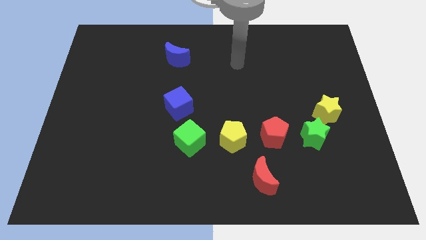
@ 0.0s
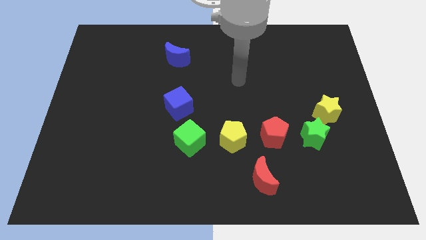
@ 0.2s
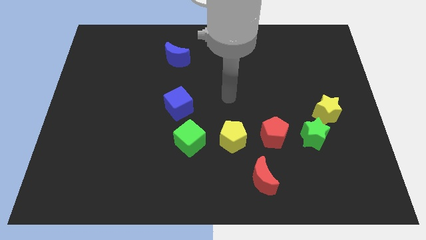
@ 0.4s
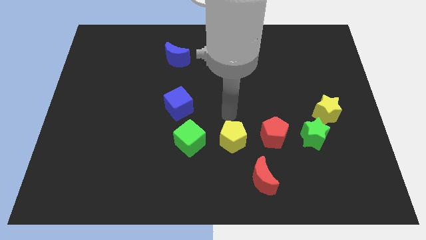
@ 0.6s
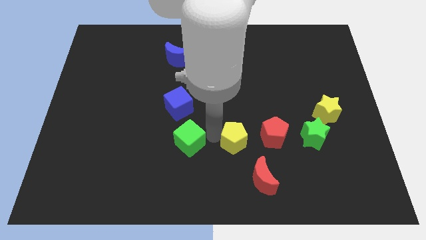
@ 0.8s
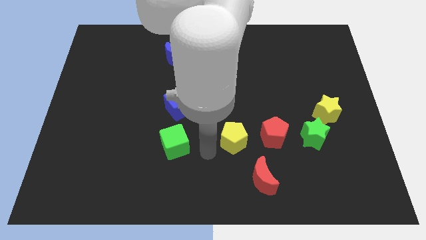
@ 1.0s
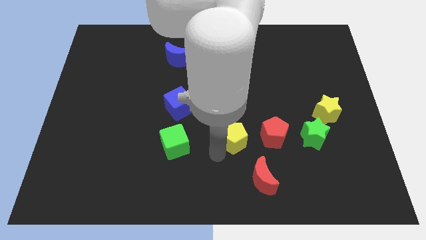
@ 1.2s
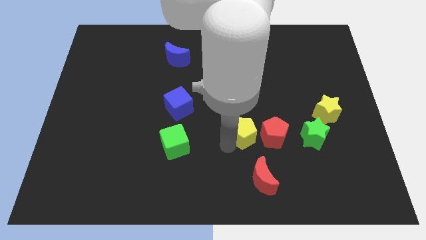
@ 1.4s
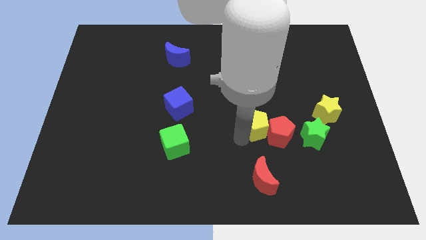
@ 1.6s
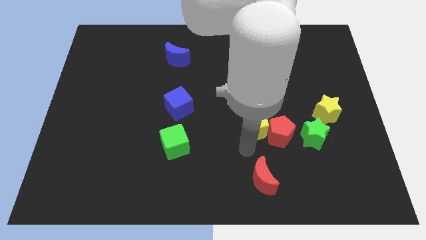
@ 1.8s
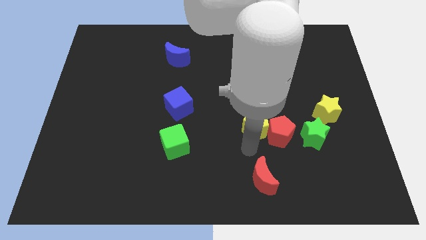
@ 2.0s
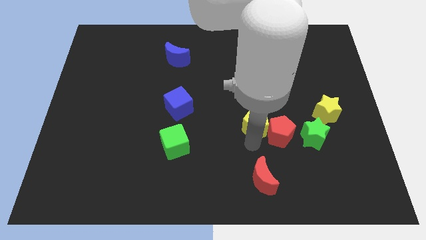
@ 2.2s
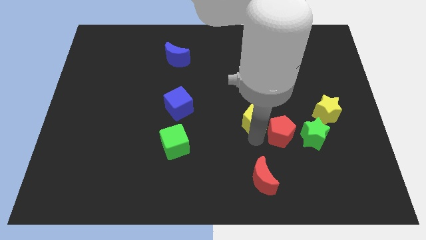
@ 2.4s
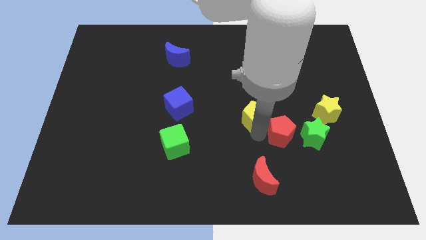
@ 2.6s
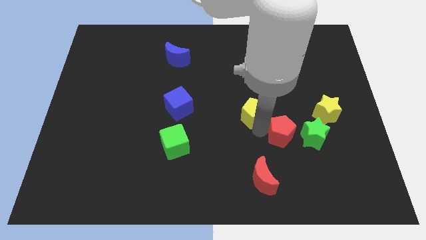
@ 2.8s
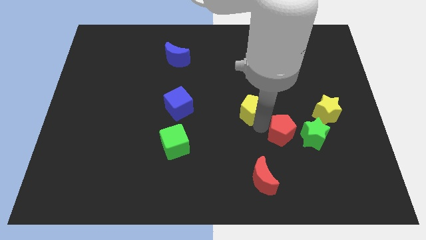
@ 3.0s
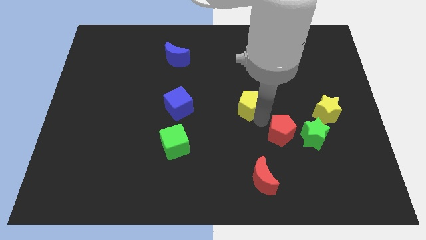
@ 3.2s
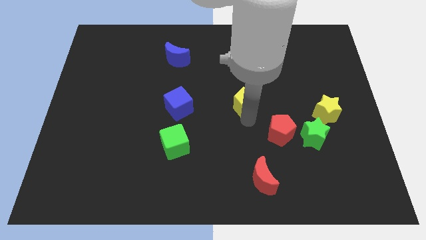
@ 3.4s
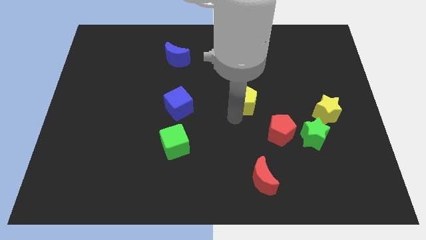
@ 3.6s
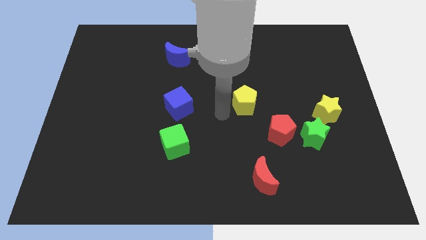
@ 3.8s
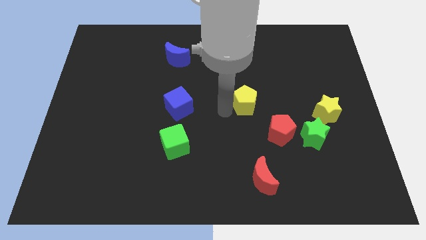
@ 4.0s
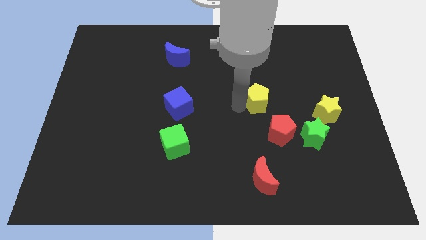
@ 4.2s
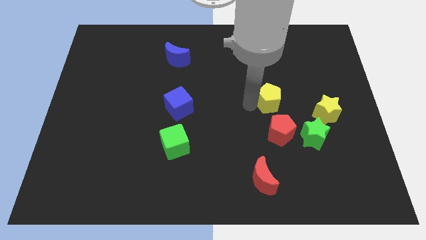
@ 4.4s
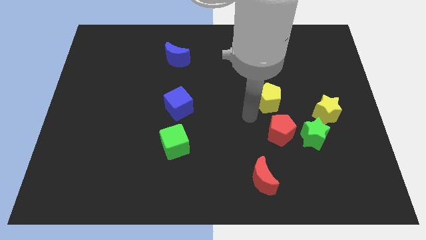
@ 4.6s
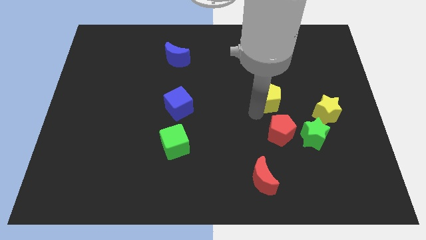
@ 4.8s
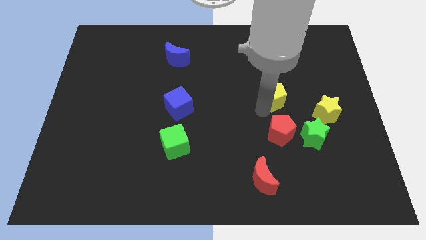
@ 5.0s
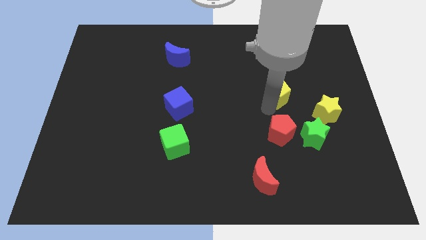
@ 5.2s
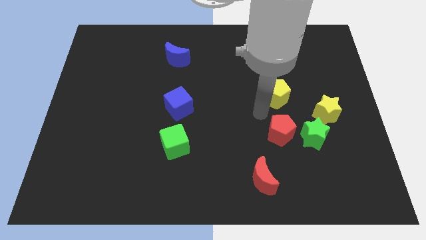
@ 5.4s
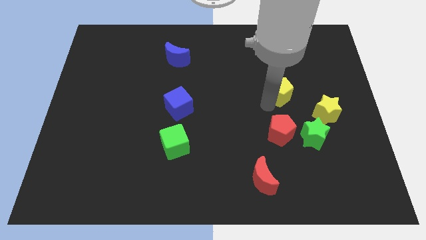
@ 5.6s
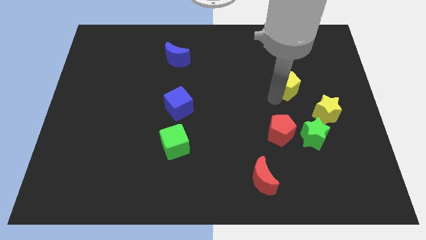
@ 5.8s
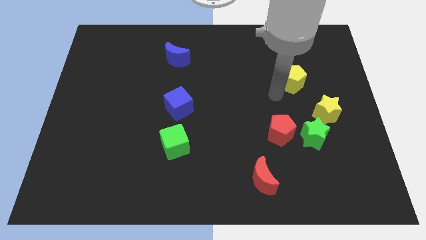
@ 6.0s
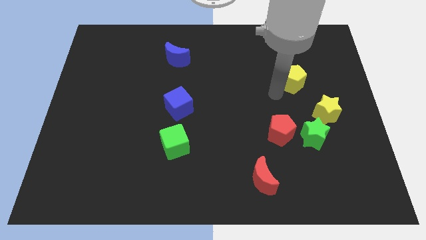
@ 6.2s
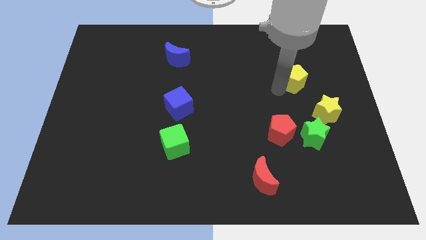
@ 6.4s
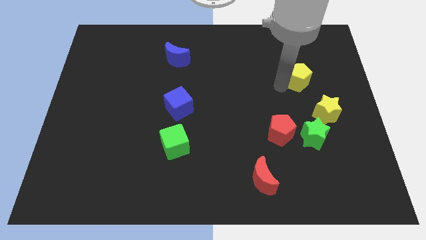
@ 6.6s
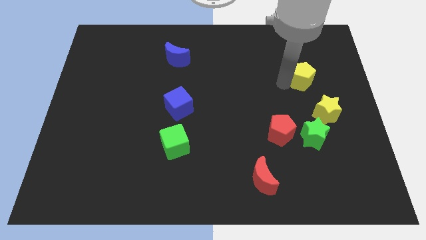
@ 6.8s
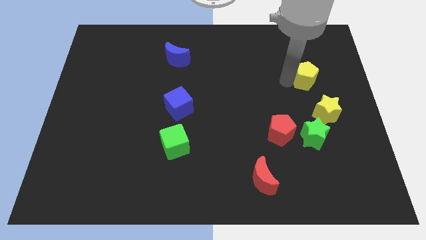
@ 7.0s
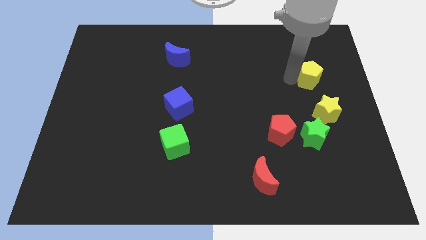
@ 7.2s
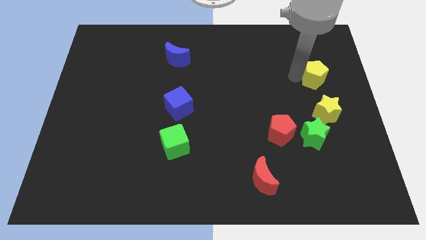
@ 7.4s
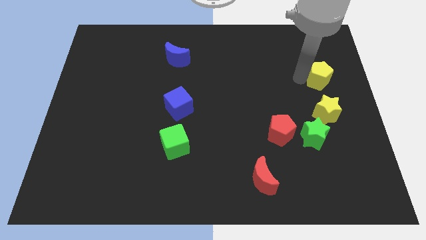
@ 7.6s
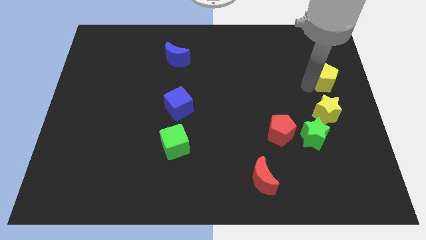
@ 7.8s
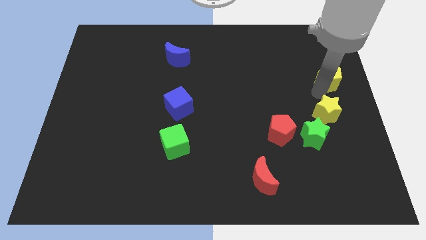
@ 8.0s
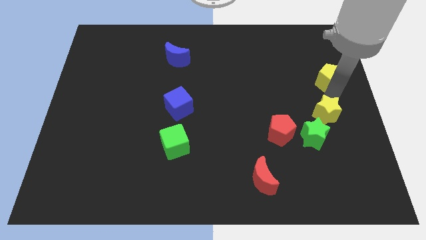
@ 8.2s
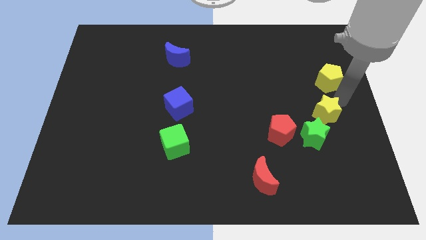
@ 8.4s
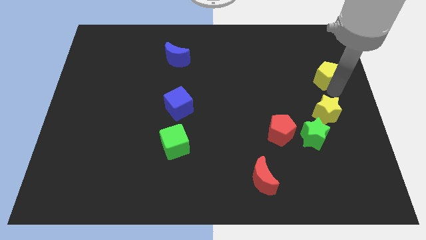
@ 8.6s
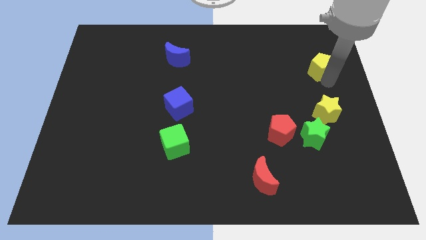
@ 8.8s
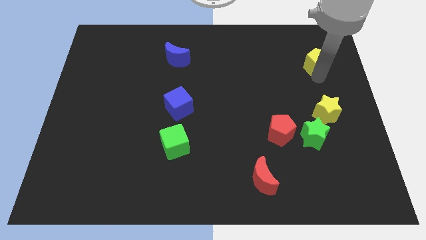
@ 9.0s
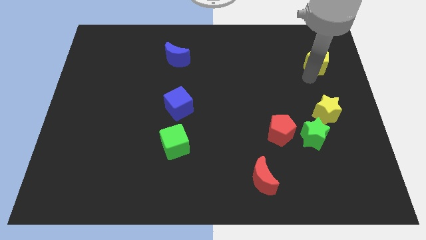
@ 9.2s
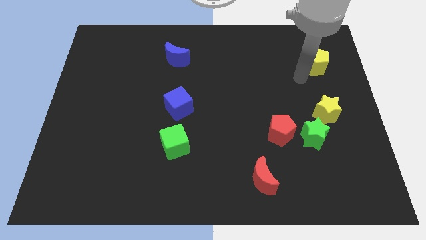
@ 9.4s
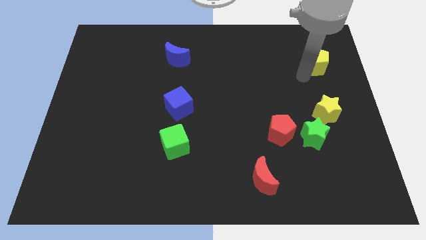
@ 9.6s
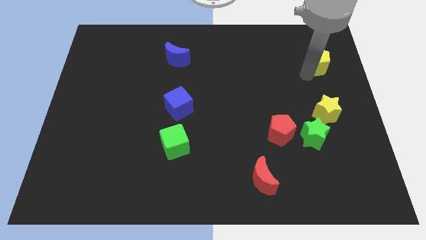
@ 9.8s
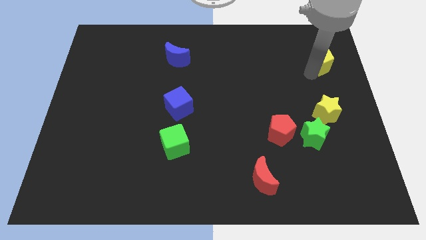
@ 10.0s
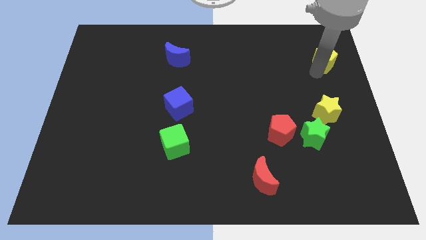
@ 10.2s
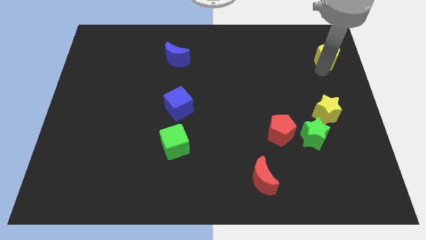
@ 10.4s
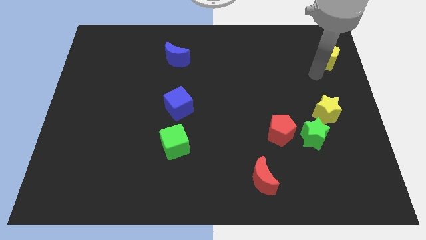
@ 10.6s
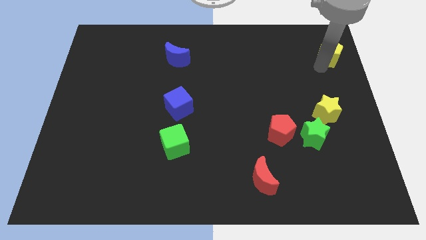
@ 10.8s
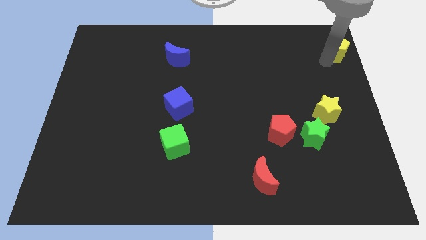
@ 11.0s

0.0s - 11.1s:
put the yellow pentagon to the top right corner

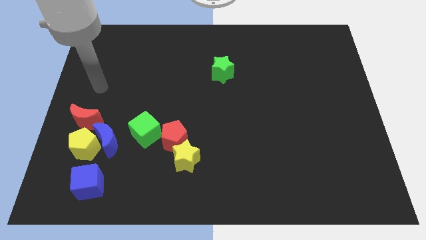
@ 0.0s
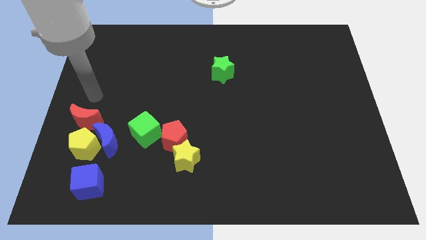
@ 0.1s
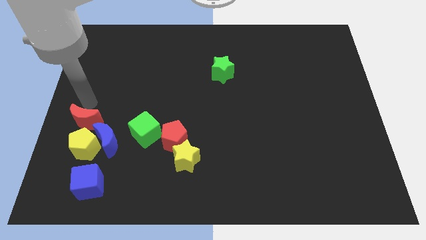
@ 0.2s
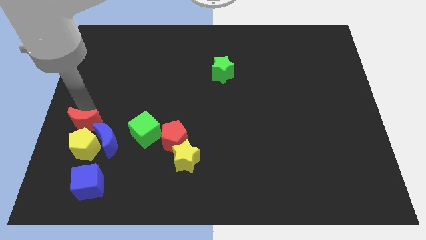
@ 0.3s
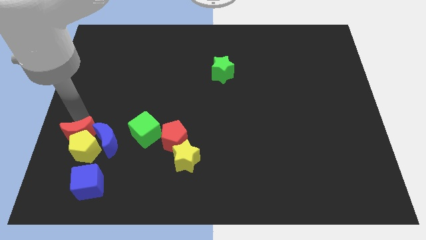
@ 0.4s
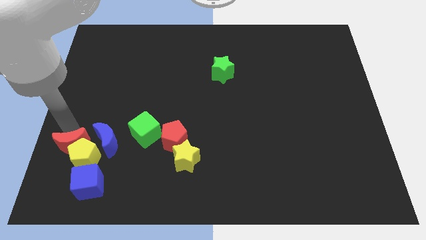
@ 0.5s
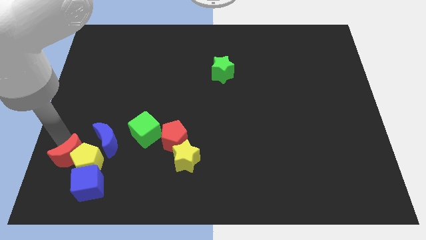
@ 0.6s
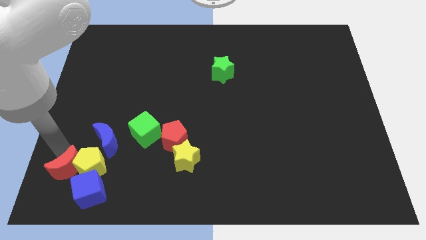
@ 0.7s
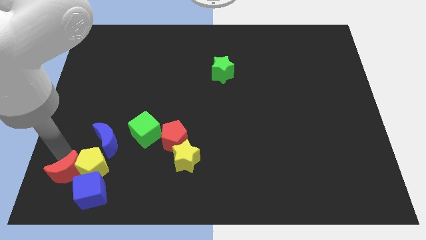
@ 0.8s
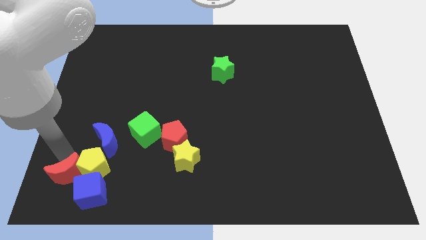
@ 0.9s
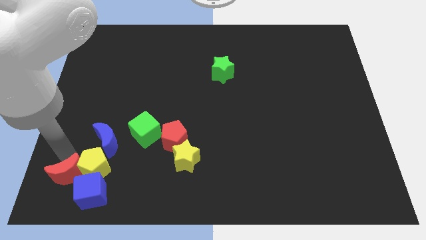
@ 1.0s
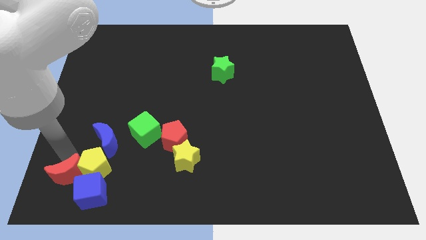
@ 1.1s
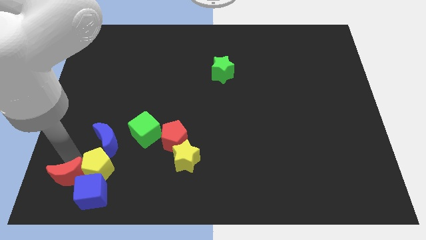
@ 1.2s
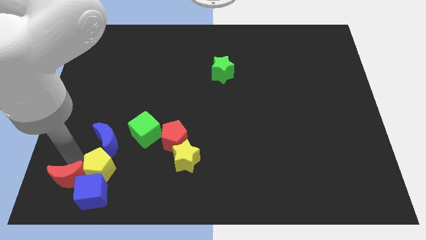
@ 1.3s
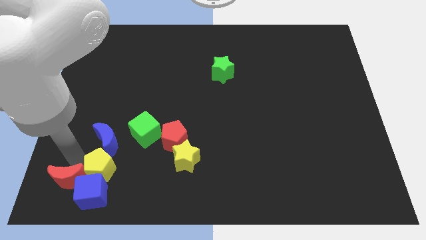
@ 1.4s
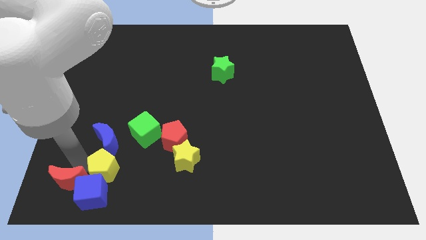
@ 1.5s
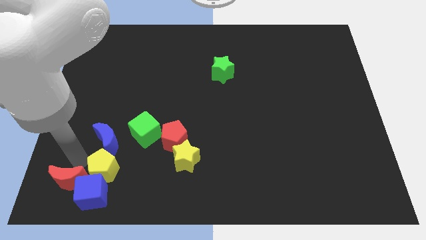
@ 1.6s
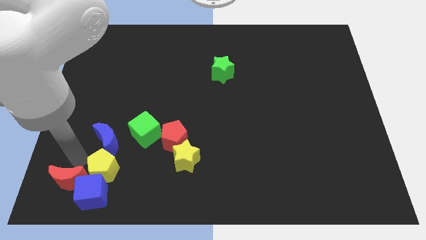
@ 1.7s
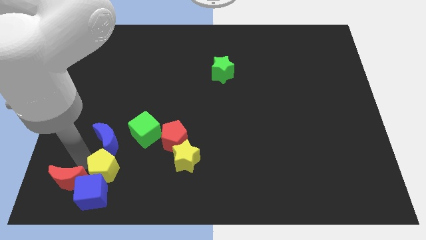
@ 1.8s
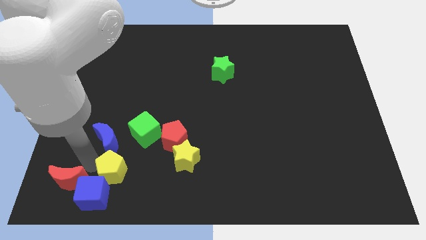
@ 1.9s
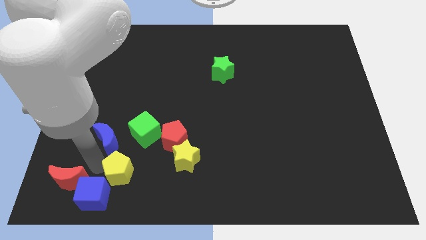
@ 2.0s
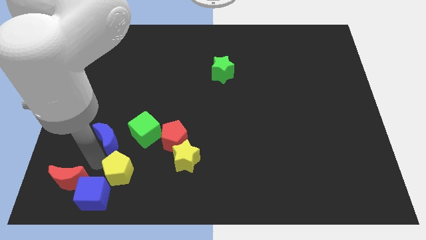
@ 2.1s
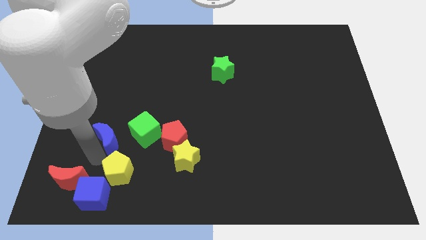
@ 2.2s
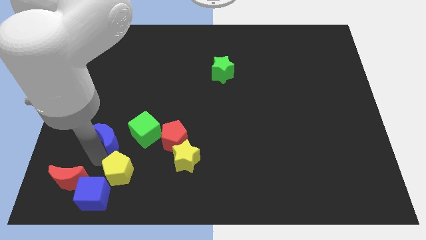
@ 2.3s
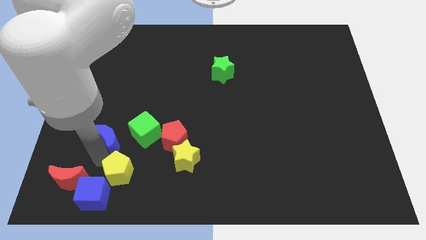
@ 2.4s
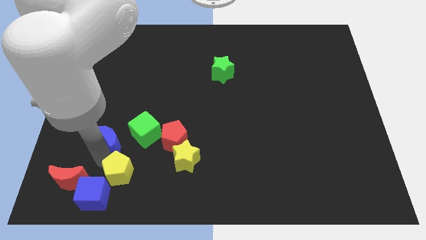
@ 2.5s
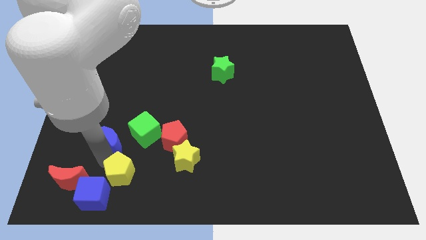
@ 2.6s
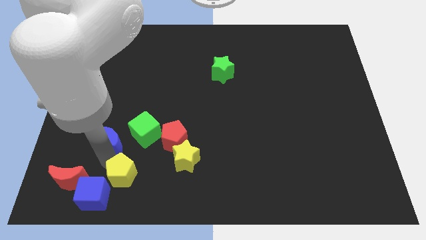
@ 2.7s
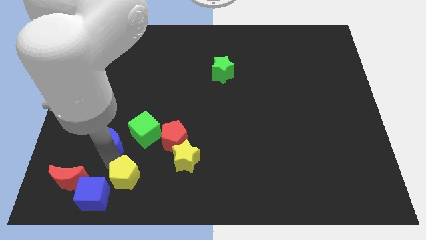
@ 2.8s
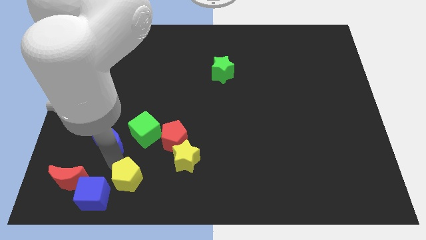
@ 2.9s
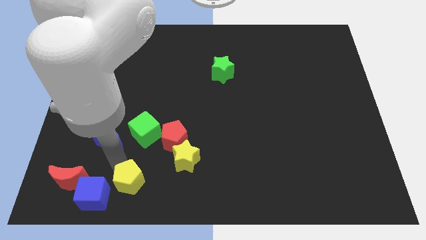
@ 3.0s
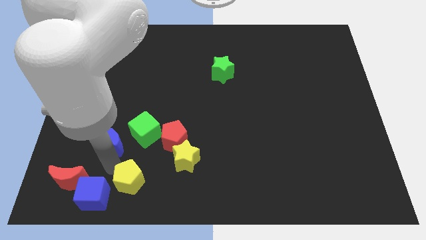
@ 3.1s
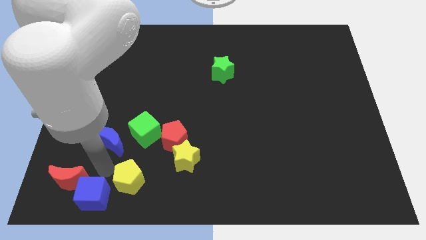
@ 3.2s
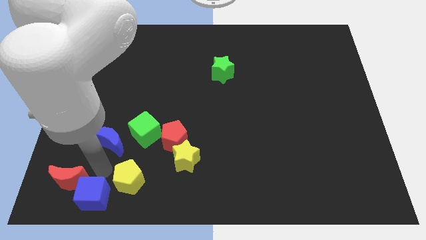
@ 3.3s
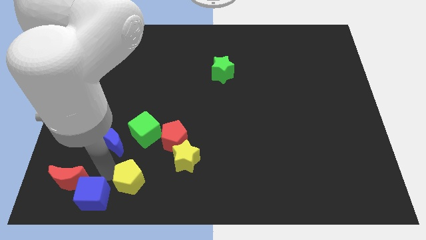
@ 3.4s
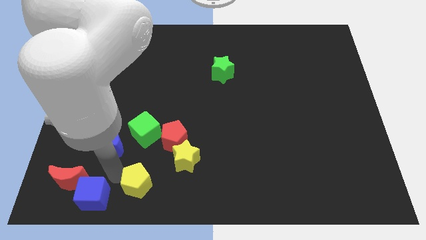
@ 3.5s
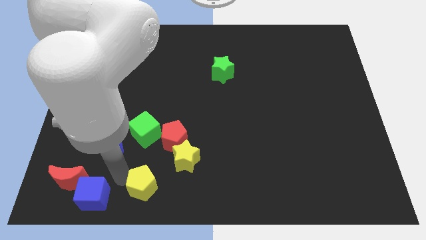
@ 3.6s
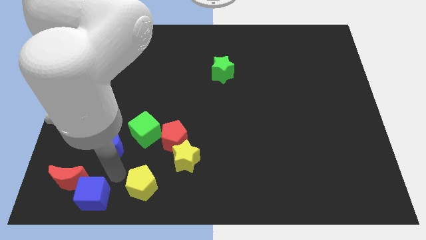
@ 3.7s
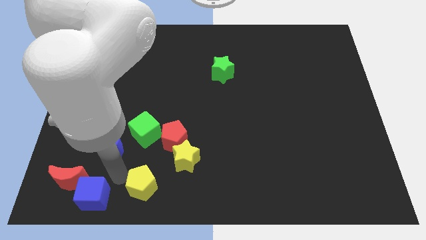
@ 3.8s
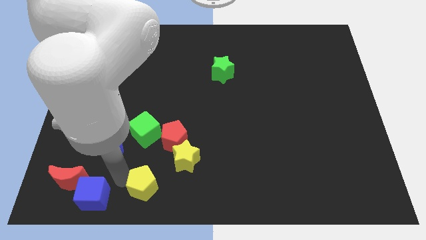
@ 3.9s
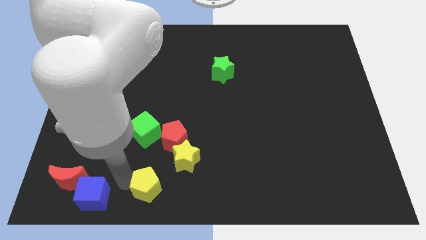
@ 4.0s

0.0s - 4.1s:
slide the yellow pentagon to the bottom side
